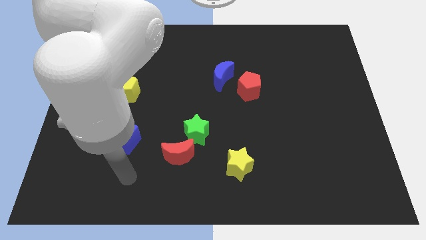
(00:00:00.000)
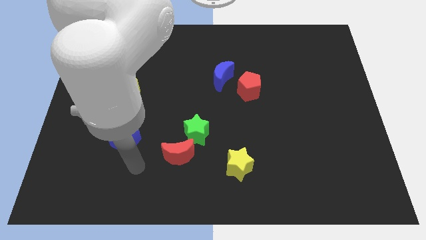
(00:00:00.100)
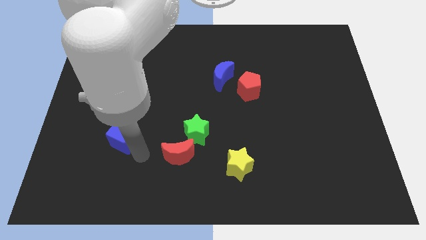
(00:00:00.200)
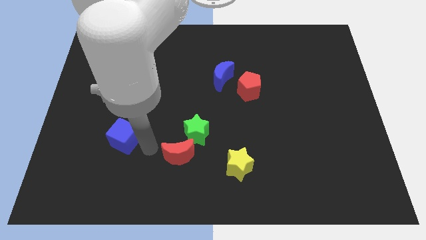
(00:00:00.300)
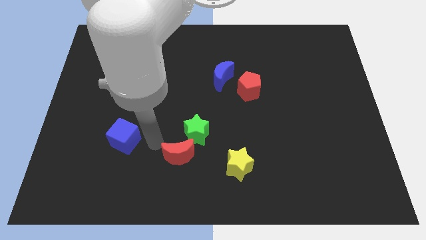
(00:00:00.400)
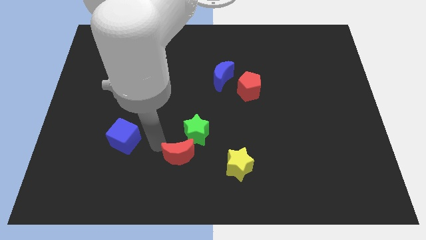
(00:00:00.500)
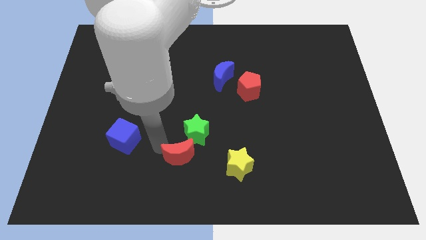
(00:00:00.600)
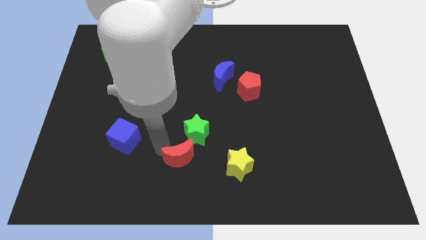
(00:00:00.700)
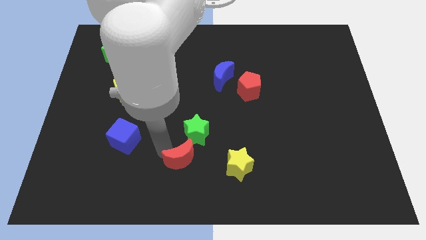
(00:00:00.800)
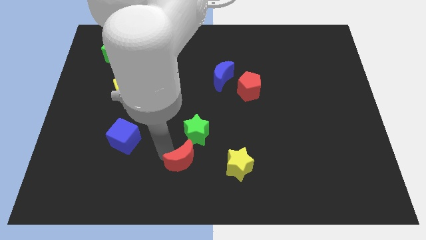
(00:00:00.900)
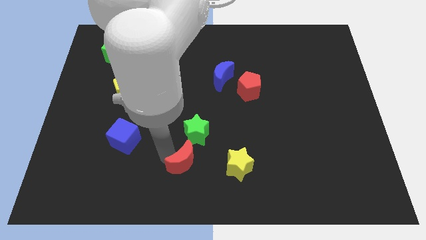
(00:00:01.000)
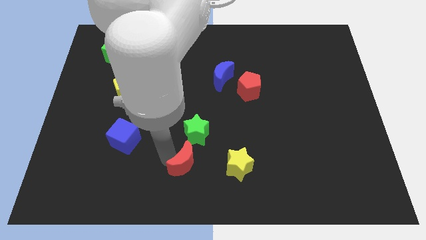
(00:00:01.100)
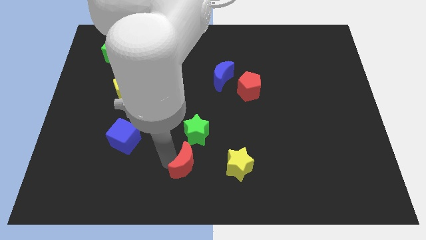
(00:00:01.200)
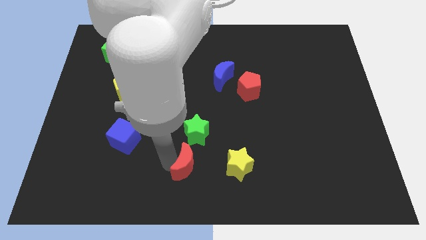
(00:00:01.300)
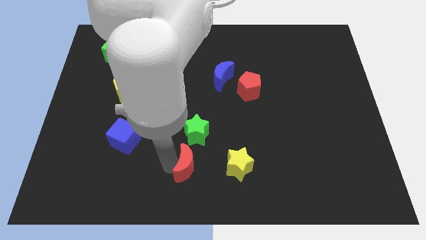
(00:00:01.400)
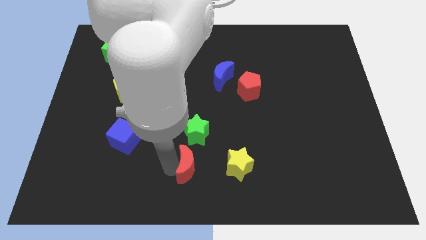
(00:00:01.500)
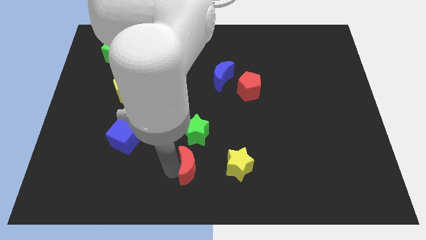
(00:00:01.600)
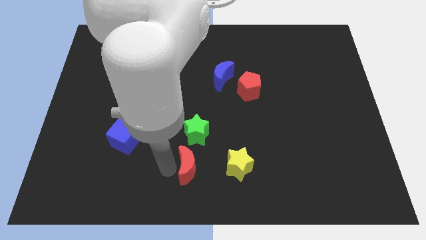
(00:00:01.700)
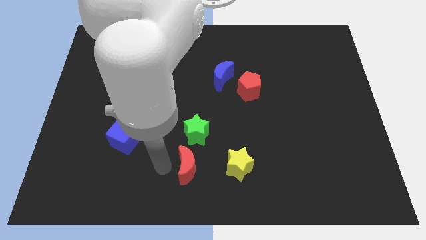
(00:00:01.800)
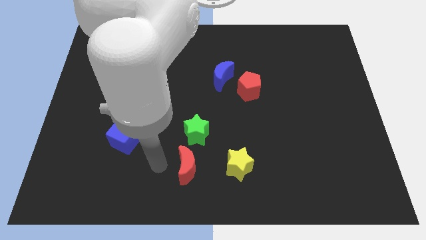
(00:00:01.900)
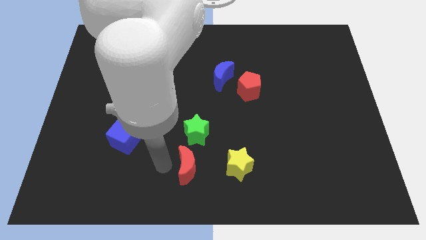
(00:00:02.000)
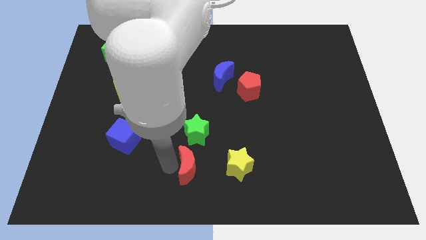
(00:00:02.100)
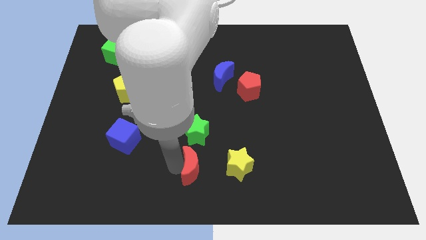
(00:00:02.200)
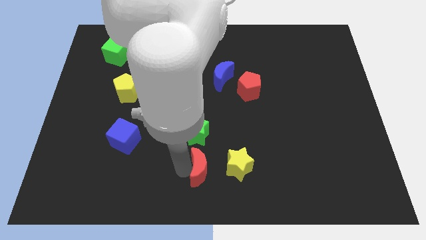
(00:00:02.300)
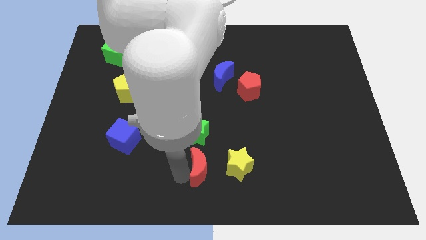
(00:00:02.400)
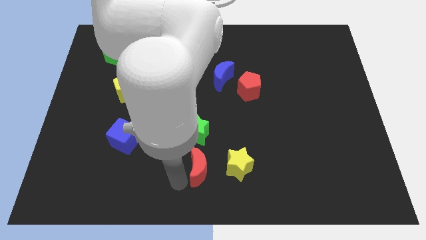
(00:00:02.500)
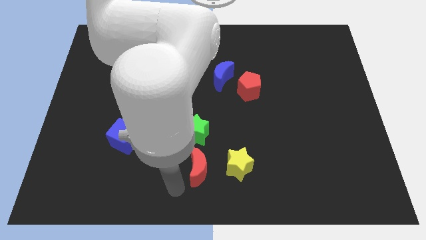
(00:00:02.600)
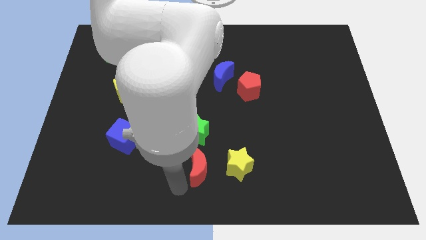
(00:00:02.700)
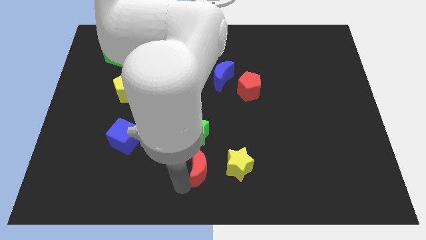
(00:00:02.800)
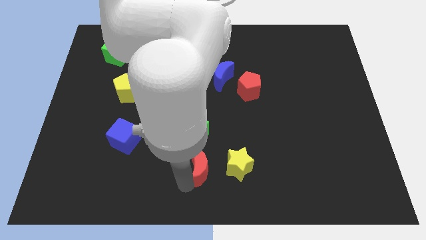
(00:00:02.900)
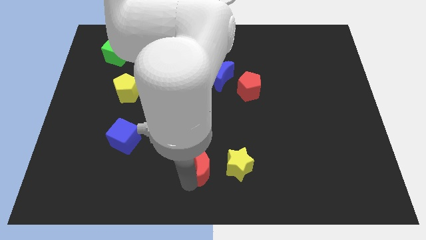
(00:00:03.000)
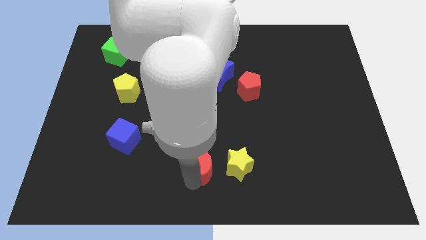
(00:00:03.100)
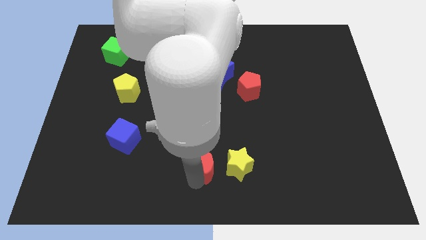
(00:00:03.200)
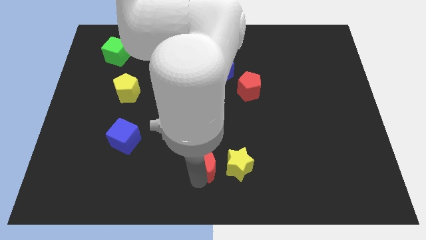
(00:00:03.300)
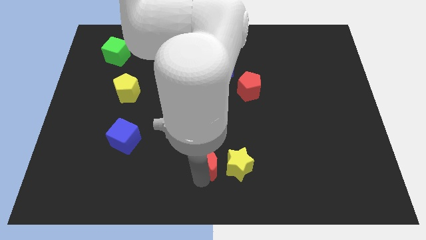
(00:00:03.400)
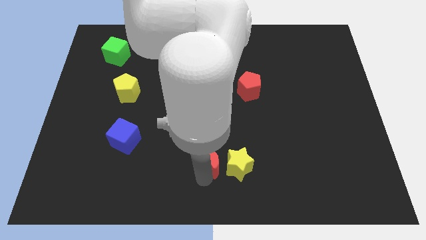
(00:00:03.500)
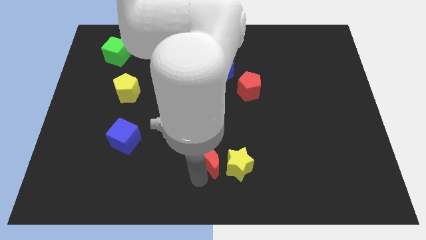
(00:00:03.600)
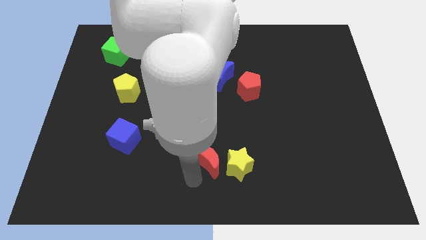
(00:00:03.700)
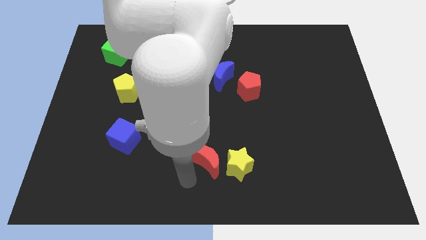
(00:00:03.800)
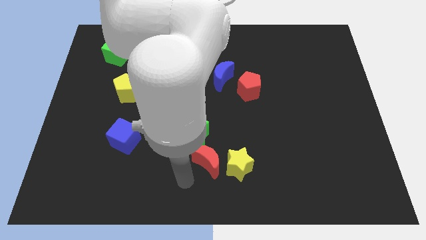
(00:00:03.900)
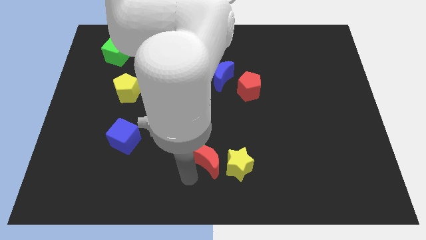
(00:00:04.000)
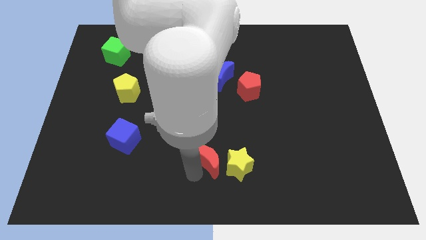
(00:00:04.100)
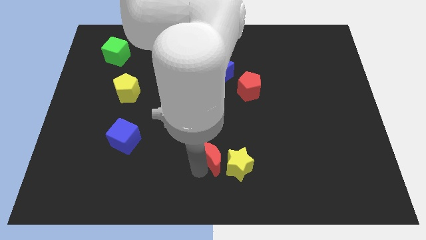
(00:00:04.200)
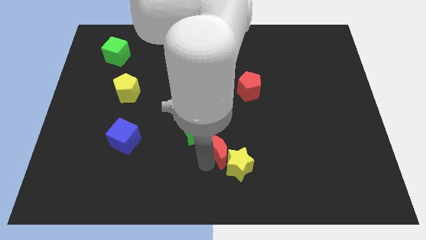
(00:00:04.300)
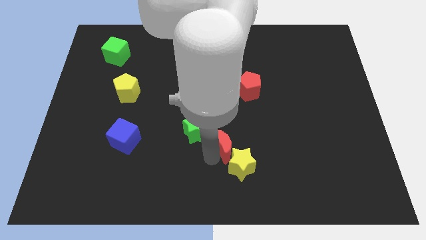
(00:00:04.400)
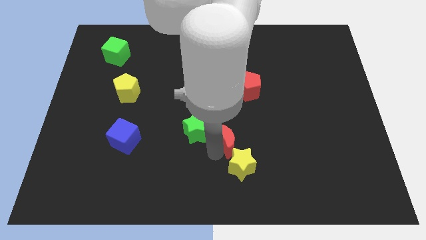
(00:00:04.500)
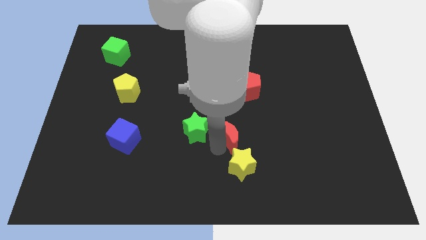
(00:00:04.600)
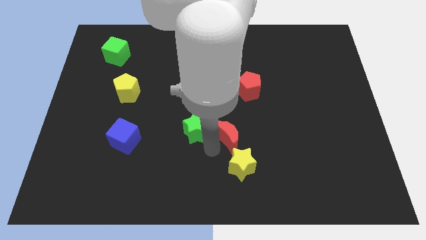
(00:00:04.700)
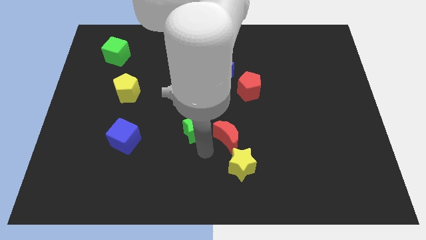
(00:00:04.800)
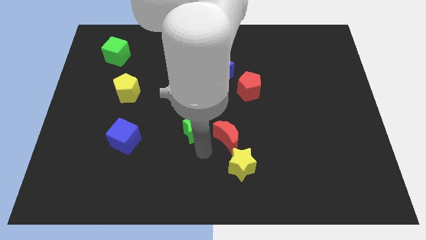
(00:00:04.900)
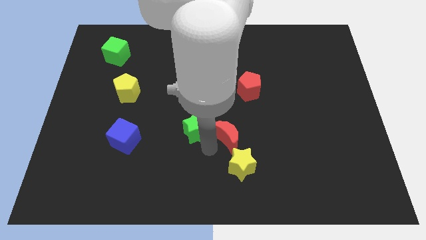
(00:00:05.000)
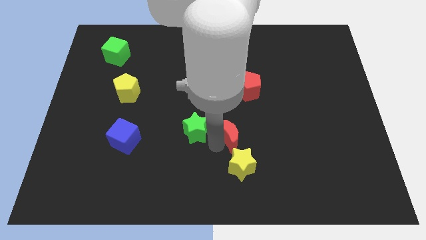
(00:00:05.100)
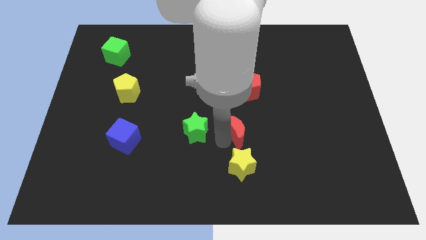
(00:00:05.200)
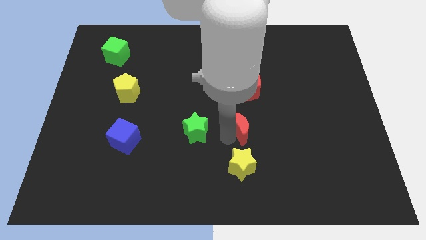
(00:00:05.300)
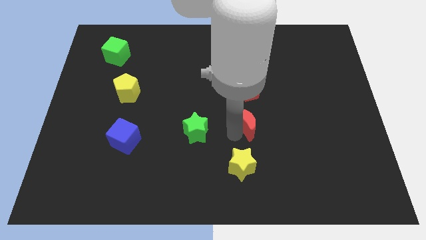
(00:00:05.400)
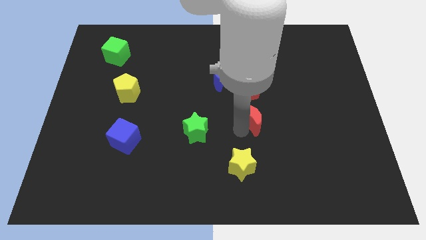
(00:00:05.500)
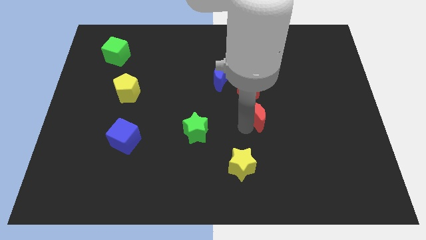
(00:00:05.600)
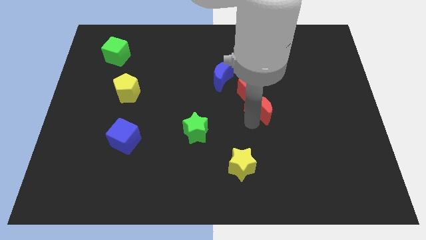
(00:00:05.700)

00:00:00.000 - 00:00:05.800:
move the red moon diagonally up and to the right

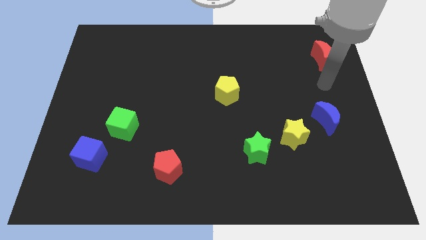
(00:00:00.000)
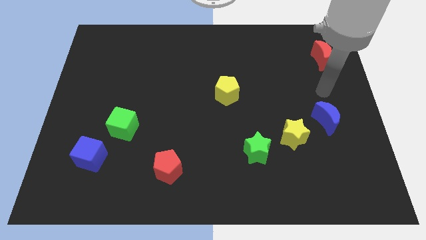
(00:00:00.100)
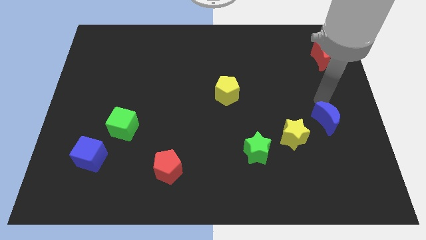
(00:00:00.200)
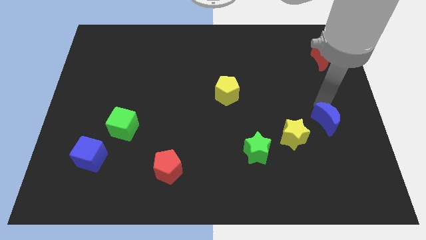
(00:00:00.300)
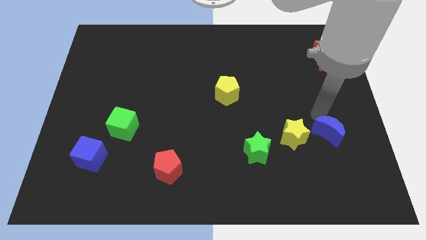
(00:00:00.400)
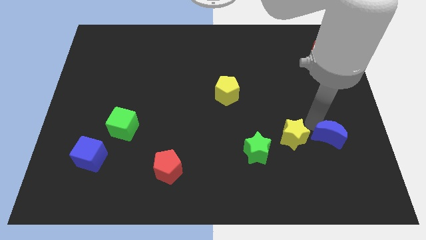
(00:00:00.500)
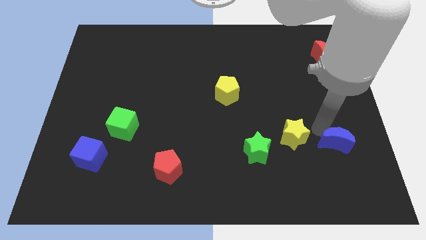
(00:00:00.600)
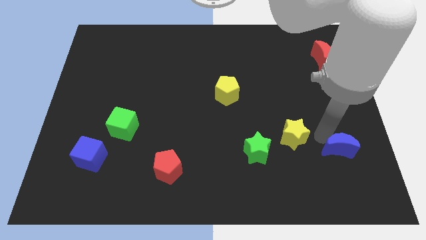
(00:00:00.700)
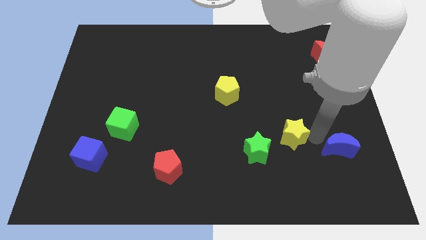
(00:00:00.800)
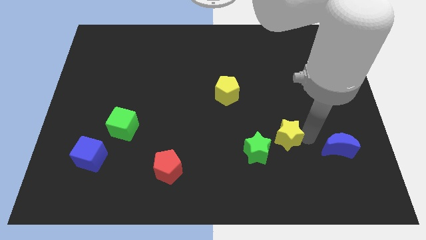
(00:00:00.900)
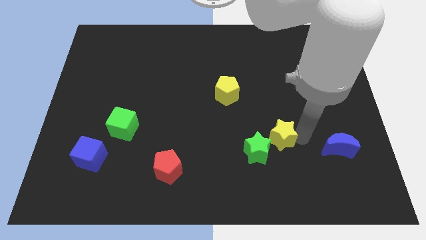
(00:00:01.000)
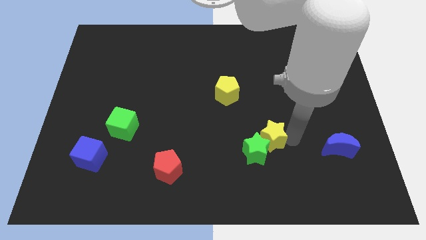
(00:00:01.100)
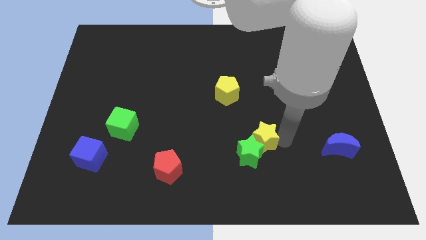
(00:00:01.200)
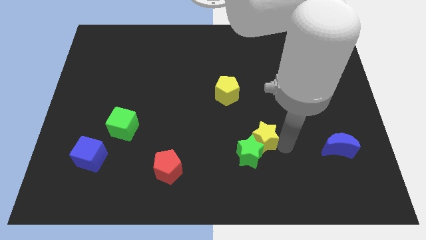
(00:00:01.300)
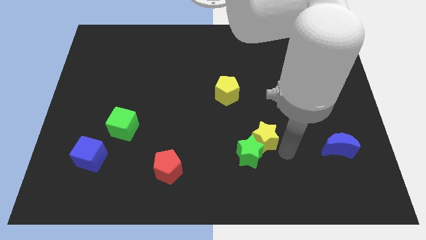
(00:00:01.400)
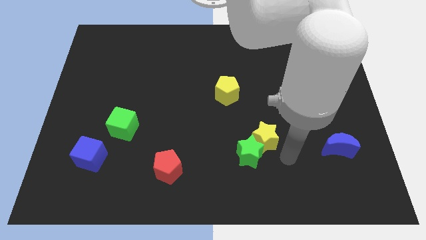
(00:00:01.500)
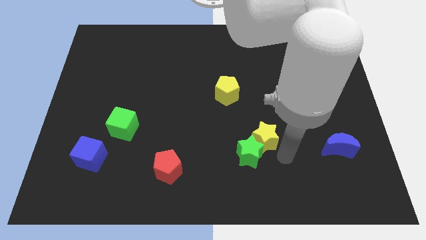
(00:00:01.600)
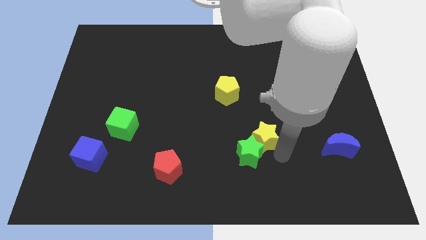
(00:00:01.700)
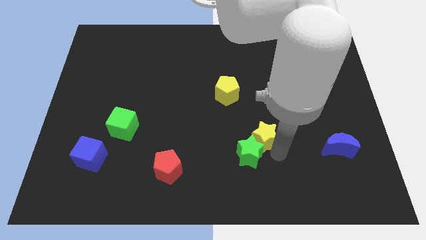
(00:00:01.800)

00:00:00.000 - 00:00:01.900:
slide the yellow star left a bit

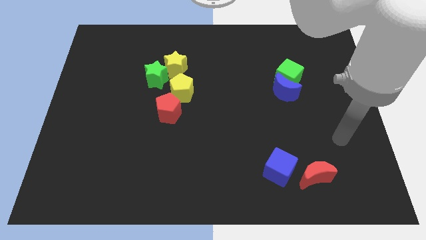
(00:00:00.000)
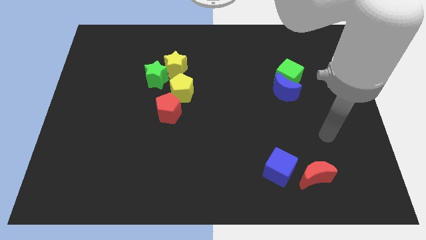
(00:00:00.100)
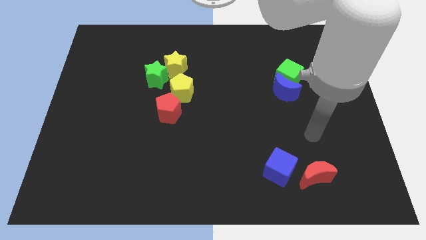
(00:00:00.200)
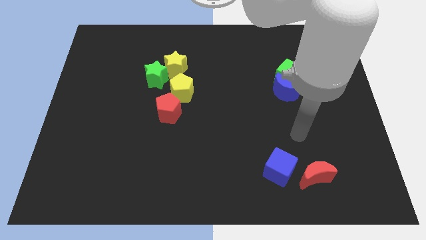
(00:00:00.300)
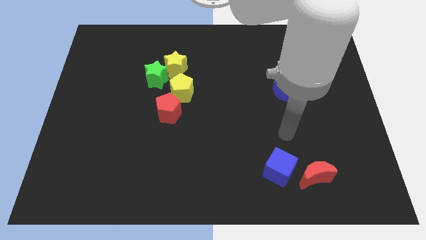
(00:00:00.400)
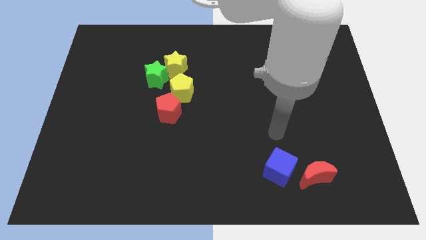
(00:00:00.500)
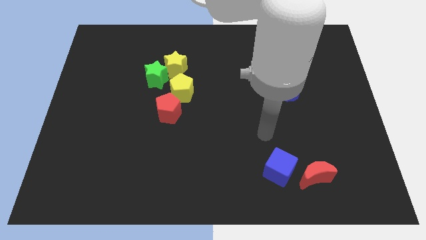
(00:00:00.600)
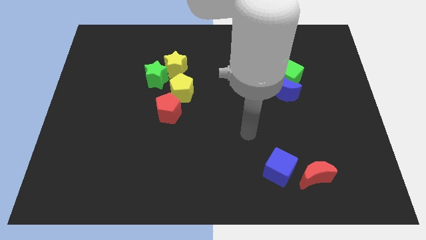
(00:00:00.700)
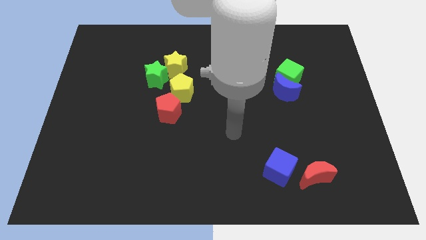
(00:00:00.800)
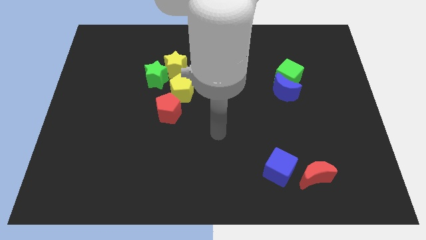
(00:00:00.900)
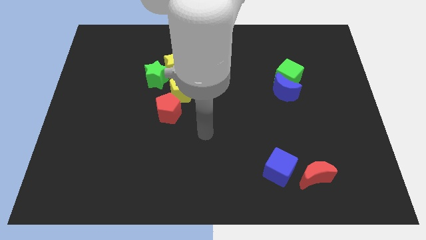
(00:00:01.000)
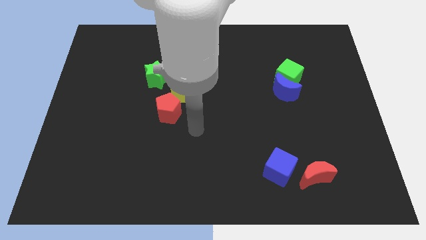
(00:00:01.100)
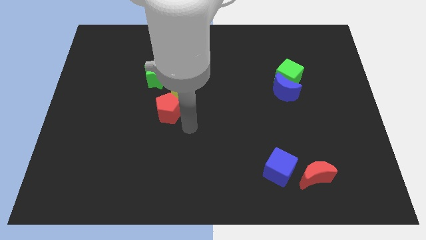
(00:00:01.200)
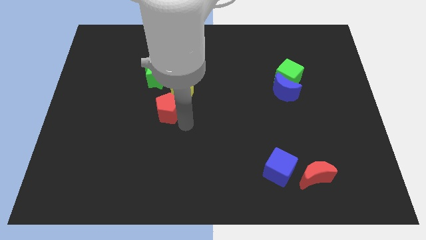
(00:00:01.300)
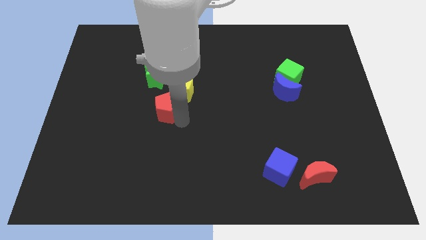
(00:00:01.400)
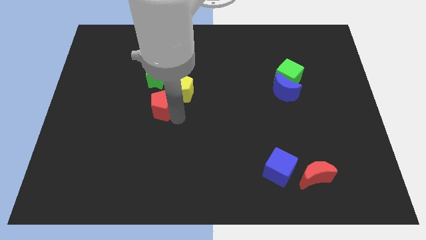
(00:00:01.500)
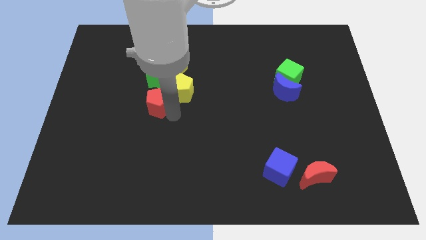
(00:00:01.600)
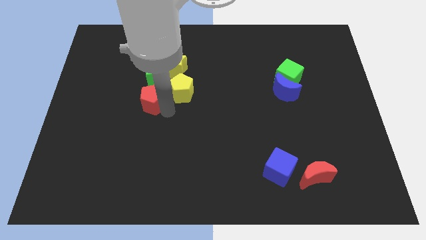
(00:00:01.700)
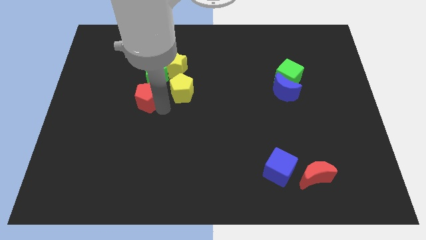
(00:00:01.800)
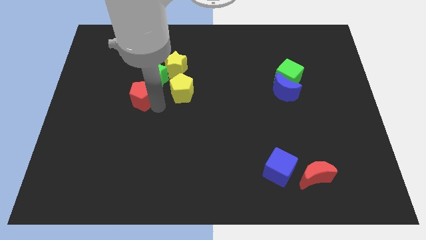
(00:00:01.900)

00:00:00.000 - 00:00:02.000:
slightly slide the red pentagon upwards and to the left
